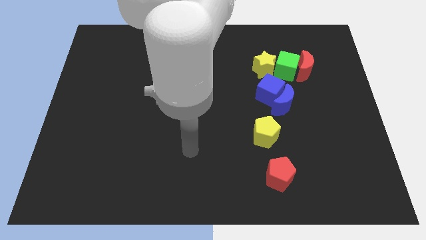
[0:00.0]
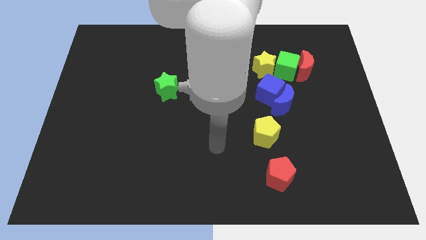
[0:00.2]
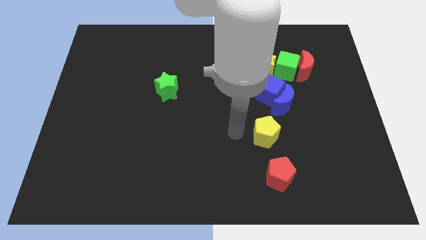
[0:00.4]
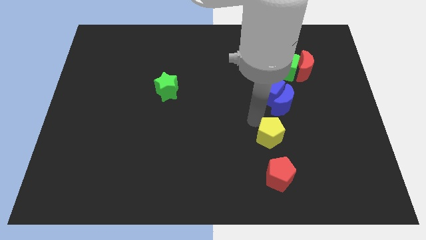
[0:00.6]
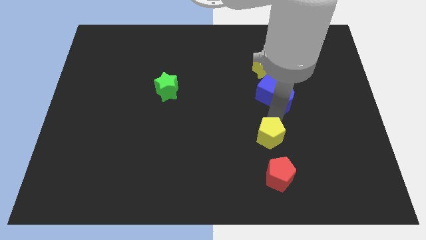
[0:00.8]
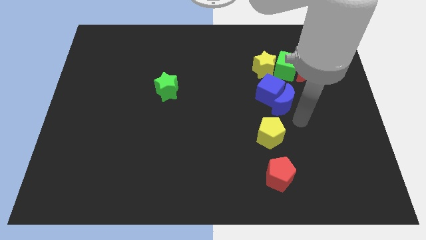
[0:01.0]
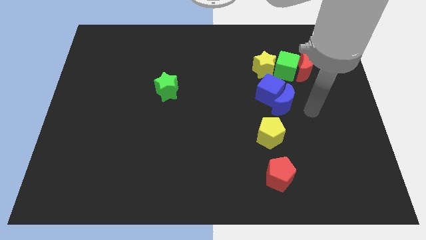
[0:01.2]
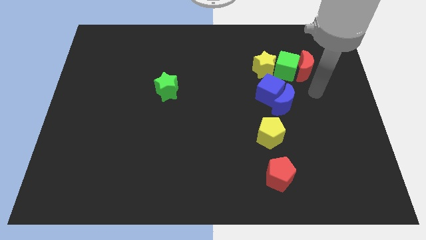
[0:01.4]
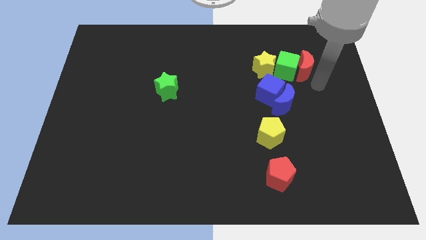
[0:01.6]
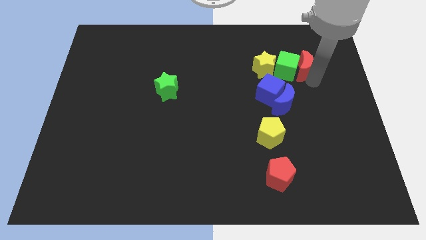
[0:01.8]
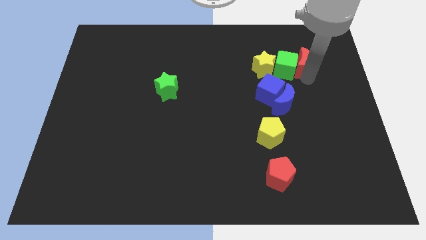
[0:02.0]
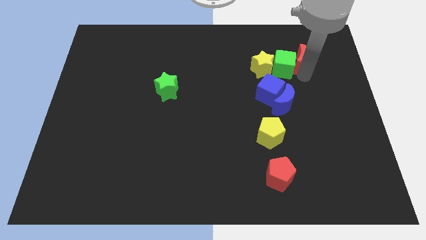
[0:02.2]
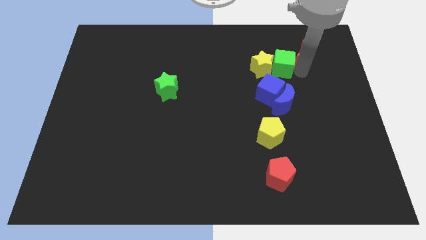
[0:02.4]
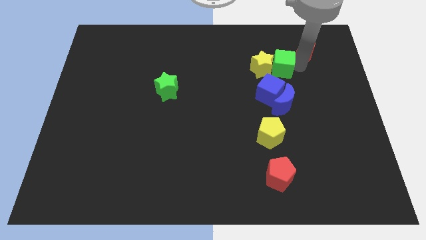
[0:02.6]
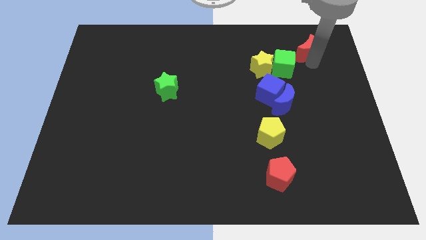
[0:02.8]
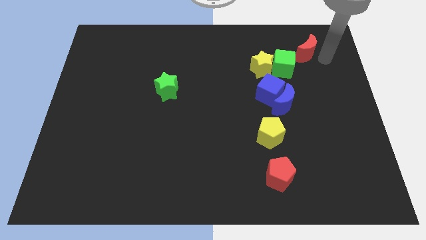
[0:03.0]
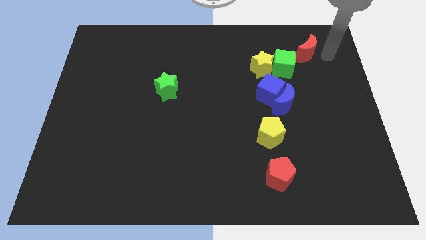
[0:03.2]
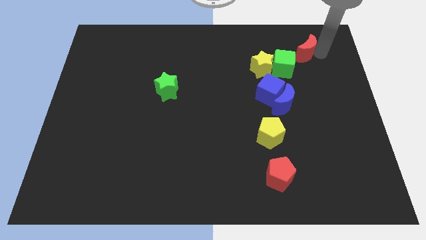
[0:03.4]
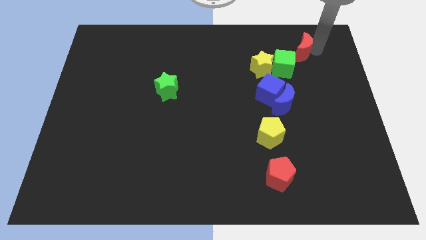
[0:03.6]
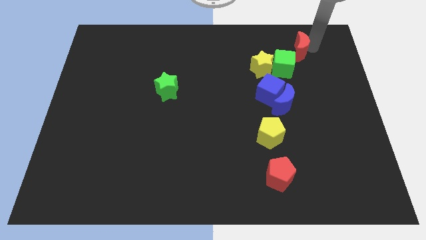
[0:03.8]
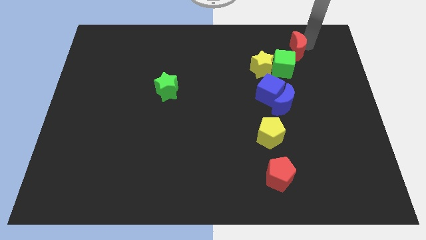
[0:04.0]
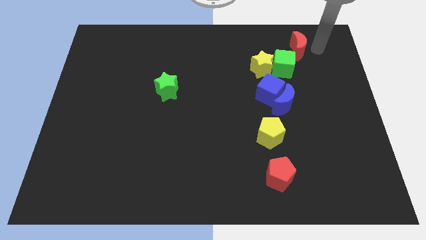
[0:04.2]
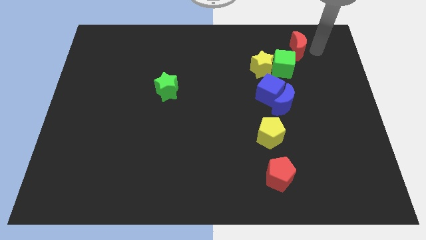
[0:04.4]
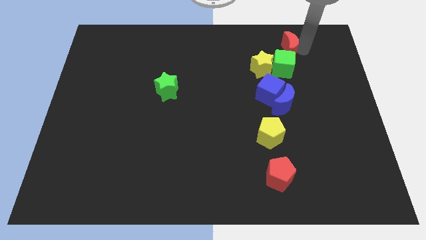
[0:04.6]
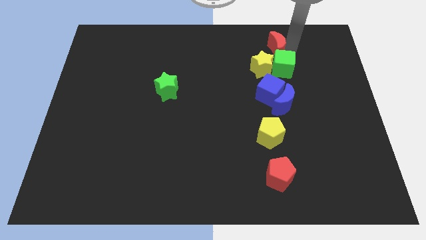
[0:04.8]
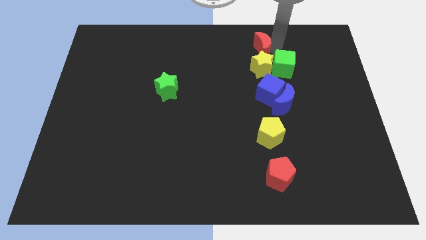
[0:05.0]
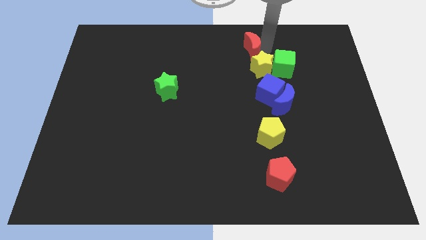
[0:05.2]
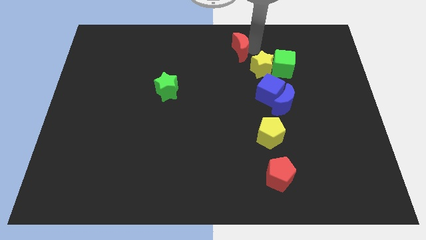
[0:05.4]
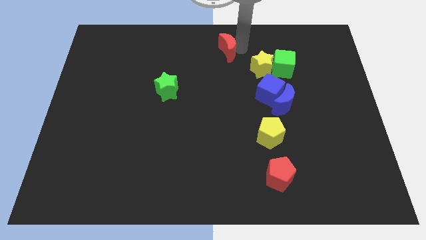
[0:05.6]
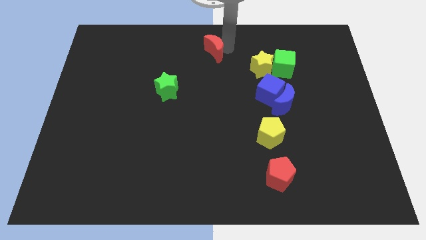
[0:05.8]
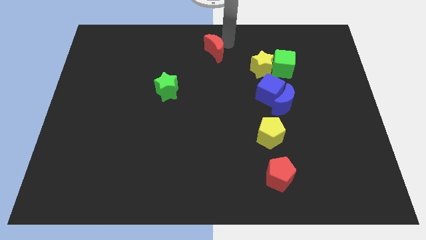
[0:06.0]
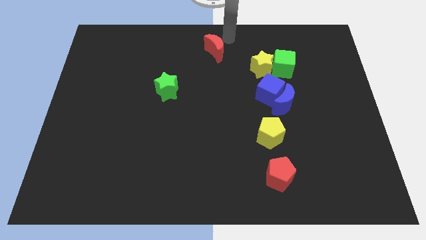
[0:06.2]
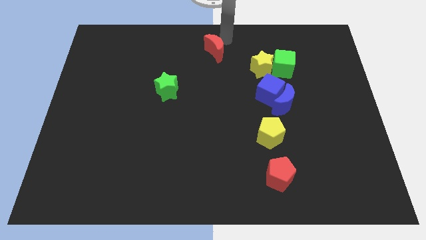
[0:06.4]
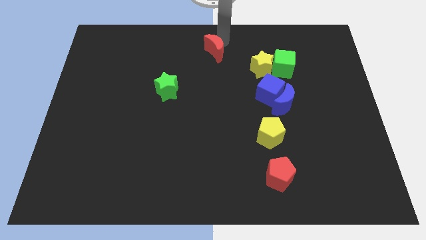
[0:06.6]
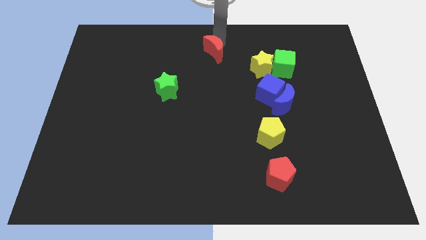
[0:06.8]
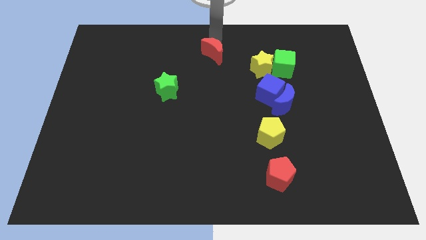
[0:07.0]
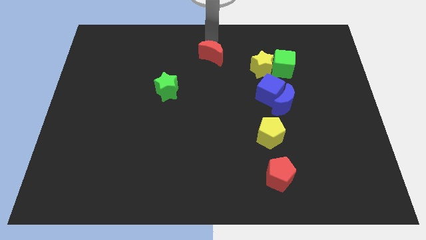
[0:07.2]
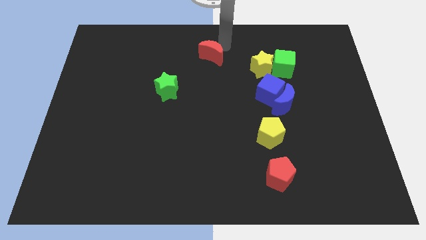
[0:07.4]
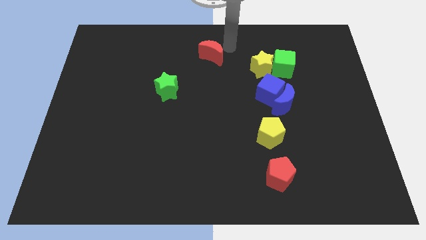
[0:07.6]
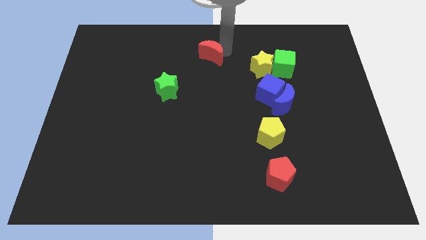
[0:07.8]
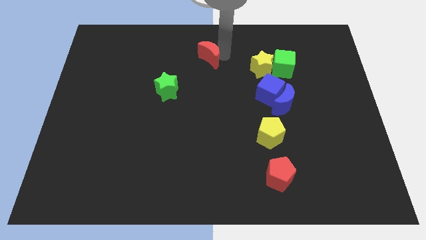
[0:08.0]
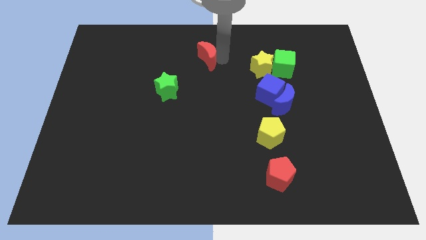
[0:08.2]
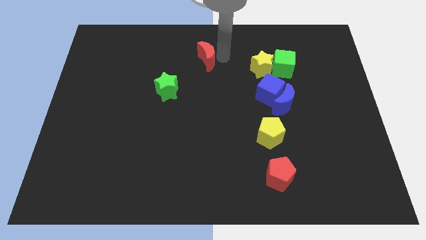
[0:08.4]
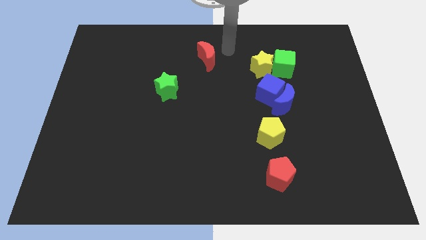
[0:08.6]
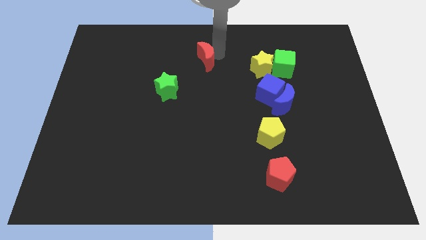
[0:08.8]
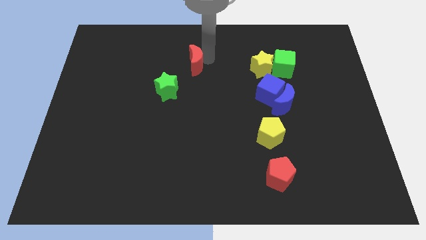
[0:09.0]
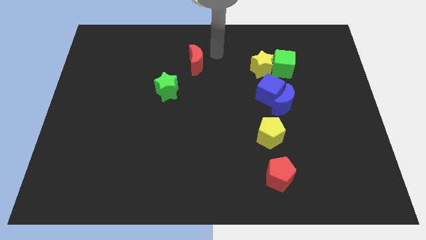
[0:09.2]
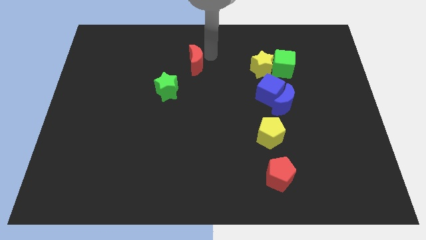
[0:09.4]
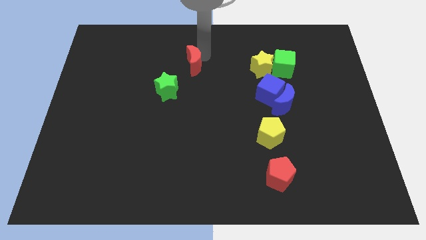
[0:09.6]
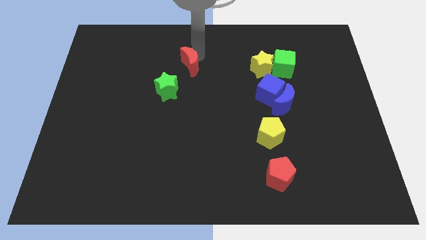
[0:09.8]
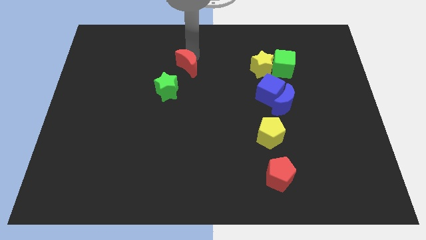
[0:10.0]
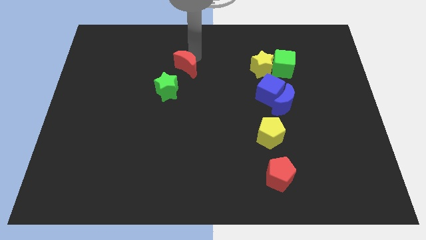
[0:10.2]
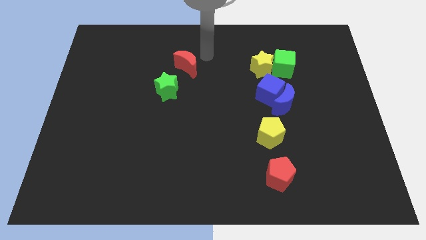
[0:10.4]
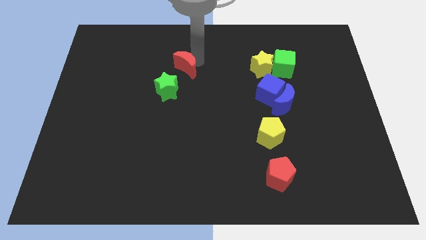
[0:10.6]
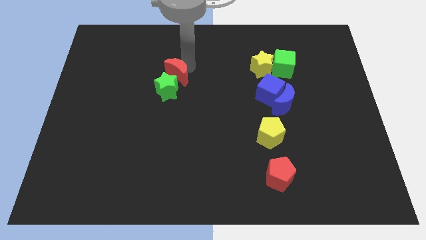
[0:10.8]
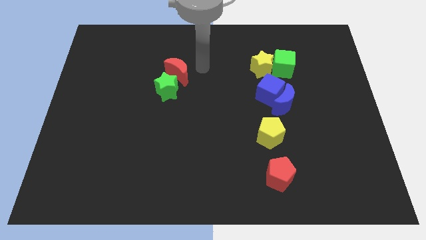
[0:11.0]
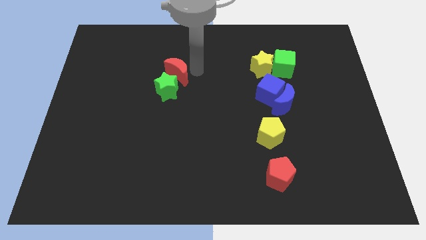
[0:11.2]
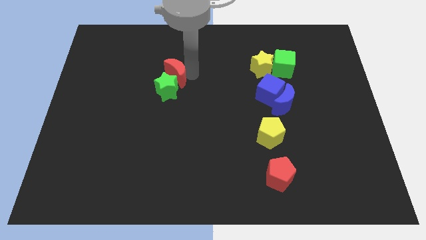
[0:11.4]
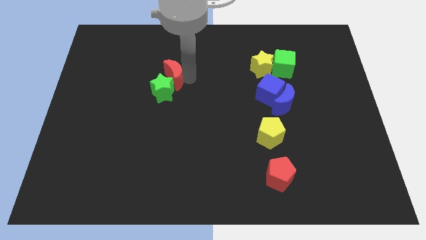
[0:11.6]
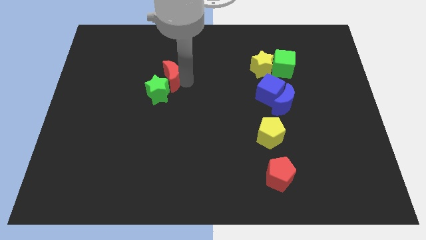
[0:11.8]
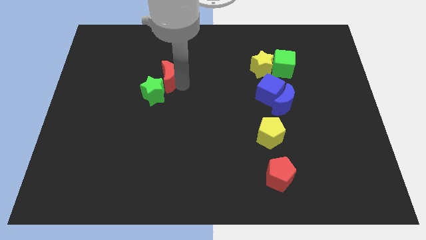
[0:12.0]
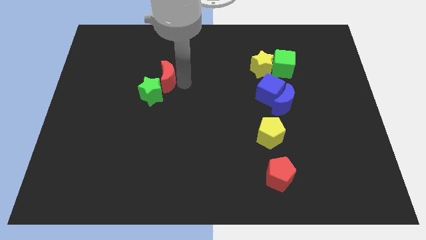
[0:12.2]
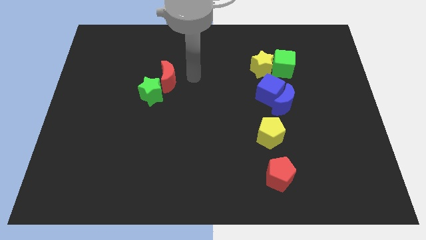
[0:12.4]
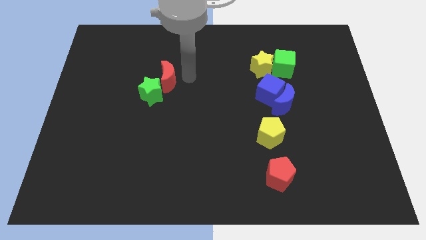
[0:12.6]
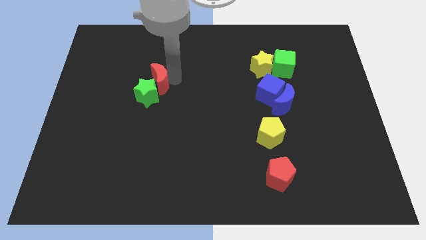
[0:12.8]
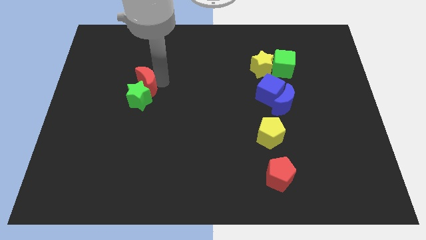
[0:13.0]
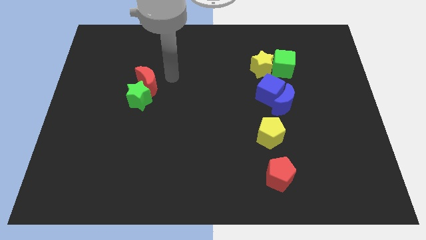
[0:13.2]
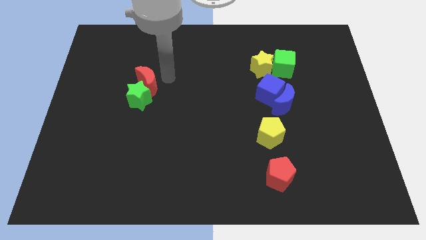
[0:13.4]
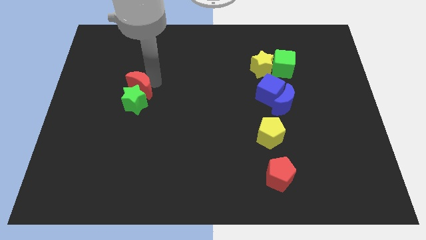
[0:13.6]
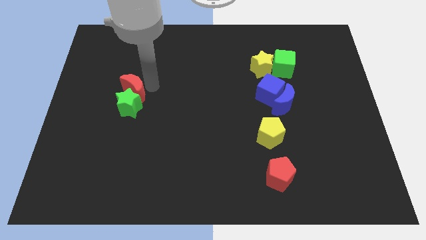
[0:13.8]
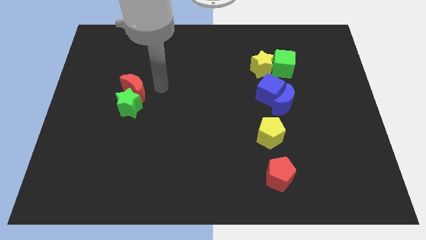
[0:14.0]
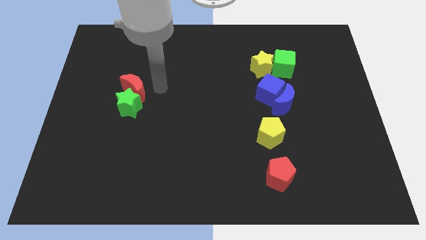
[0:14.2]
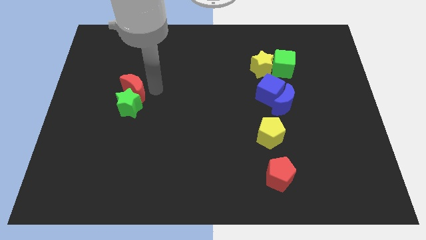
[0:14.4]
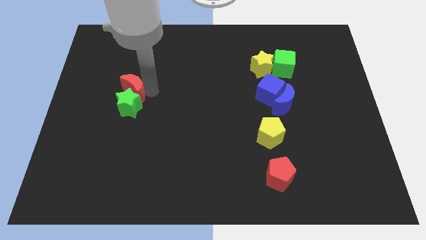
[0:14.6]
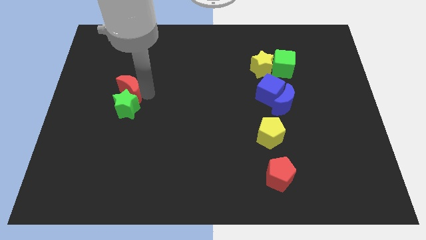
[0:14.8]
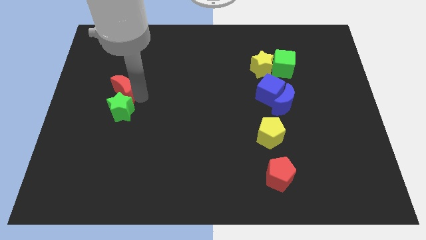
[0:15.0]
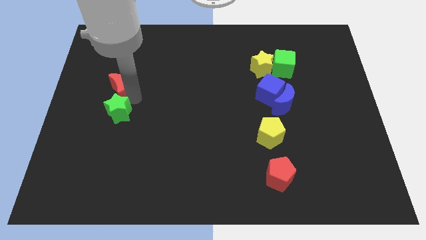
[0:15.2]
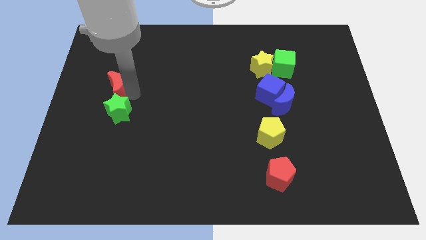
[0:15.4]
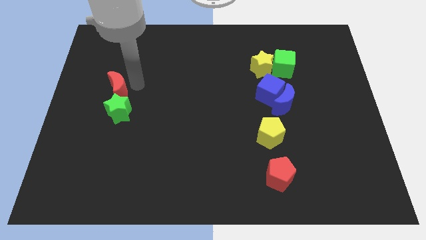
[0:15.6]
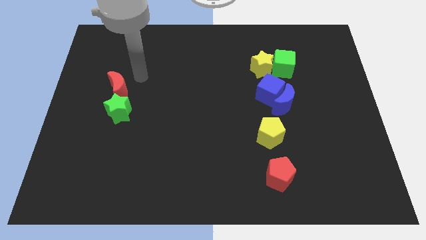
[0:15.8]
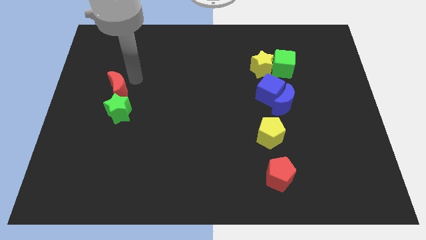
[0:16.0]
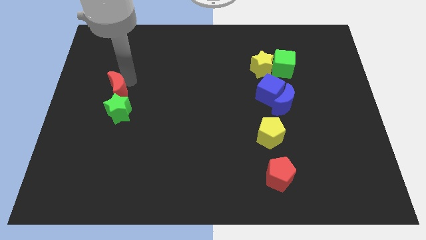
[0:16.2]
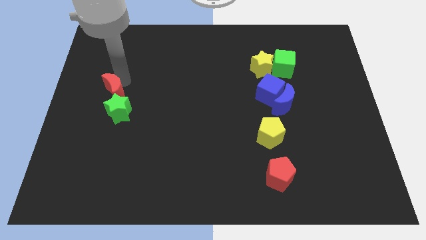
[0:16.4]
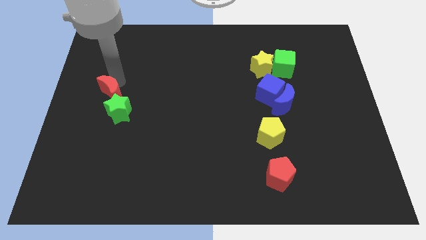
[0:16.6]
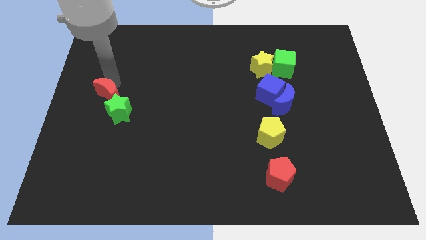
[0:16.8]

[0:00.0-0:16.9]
put the red moon to the center left
